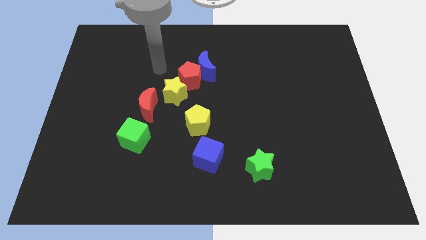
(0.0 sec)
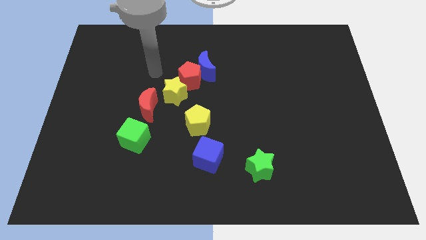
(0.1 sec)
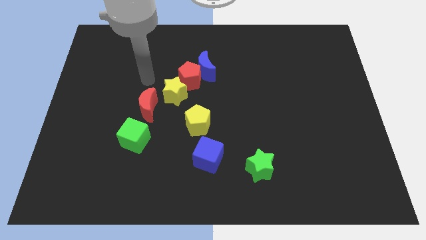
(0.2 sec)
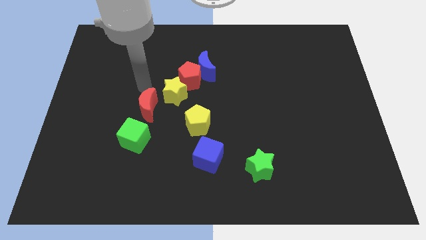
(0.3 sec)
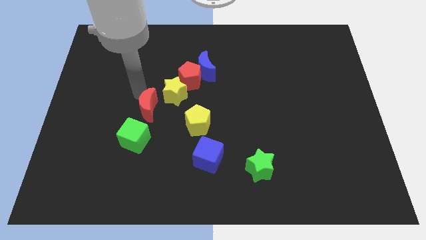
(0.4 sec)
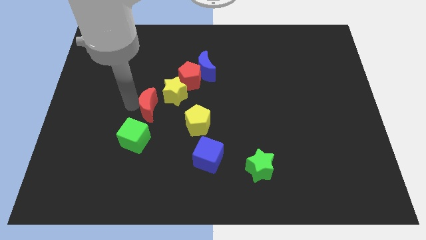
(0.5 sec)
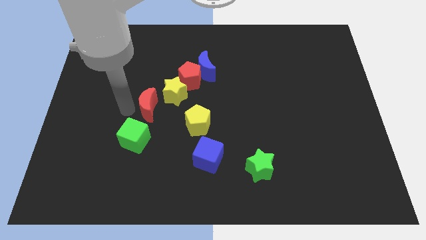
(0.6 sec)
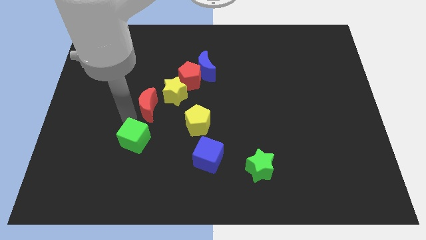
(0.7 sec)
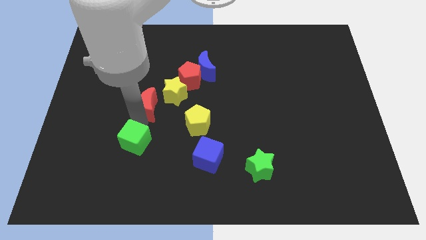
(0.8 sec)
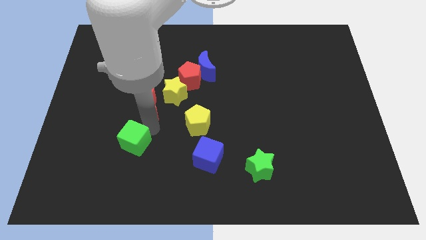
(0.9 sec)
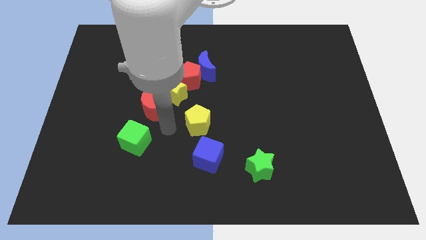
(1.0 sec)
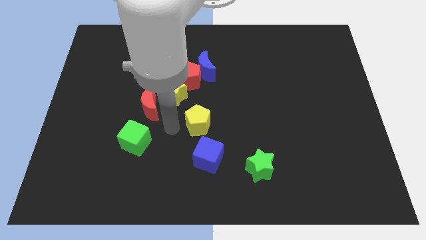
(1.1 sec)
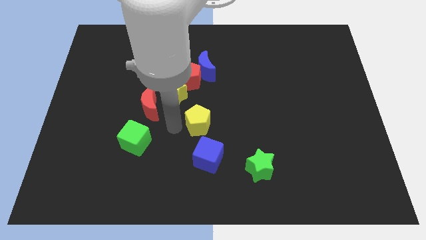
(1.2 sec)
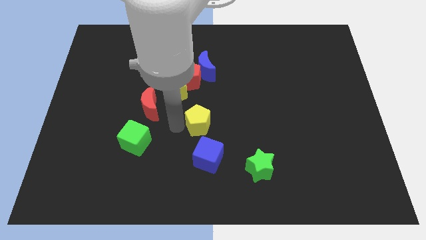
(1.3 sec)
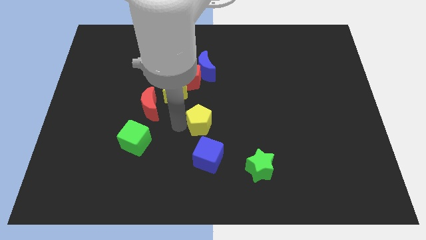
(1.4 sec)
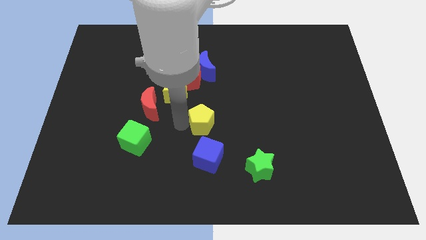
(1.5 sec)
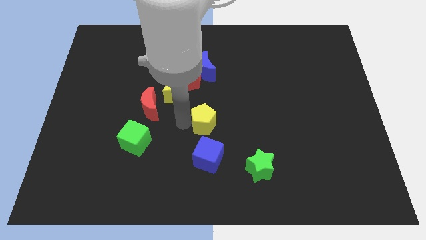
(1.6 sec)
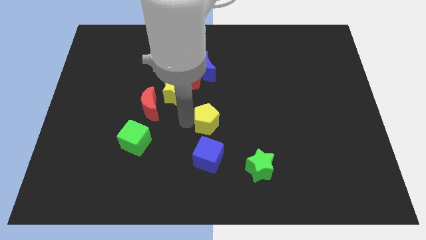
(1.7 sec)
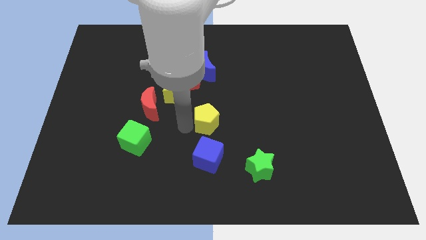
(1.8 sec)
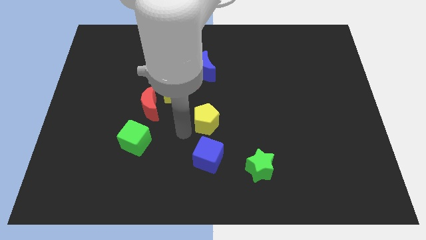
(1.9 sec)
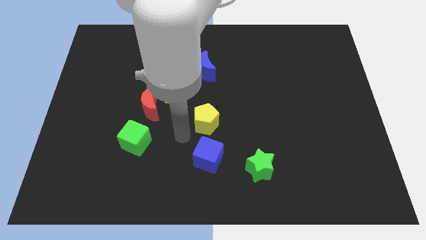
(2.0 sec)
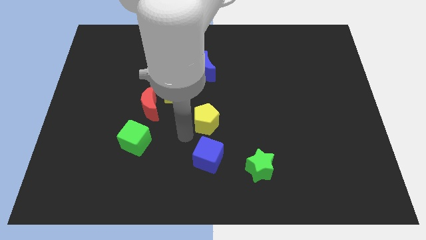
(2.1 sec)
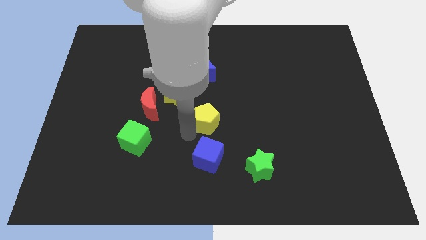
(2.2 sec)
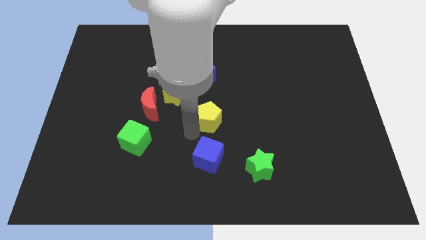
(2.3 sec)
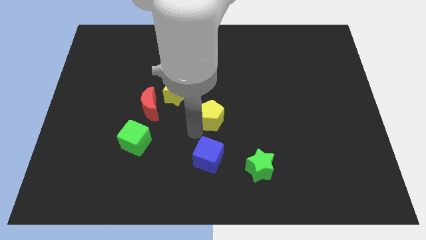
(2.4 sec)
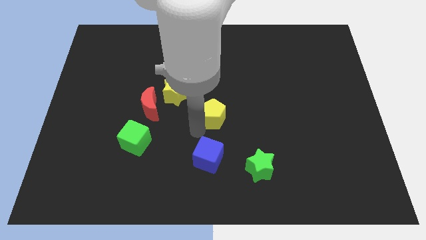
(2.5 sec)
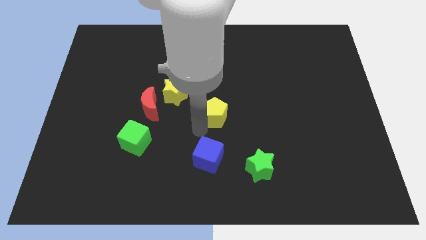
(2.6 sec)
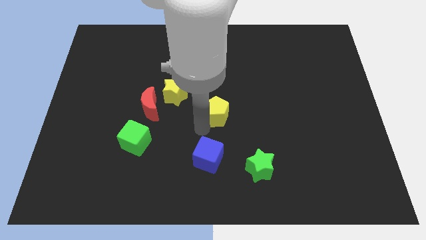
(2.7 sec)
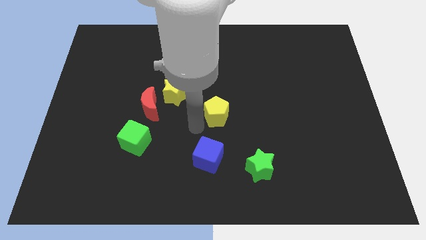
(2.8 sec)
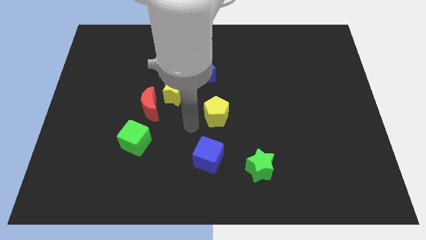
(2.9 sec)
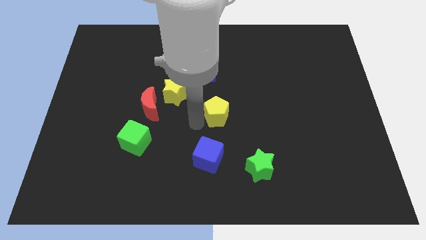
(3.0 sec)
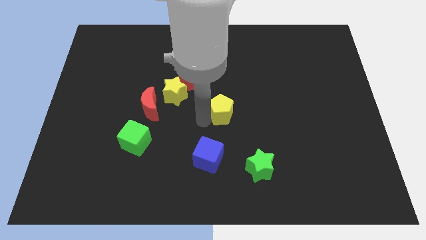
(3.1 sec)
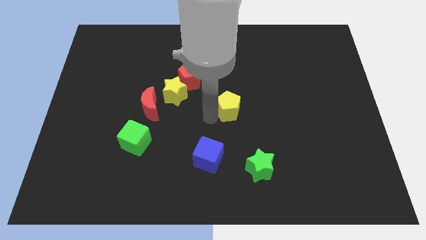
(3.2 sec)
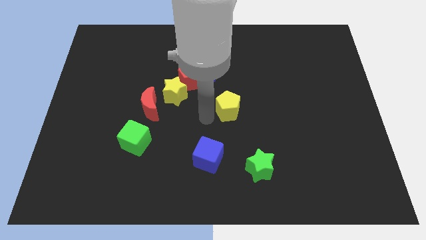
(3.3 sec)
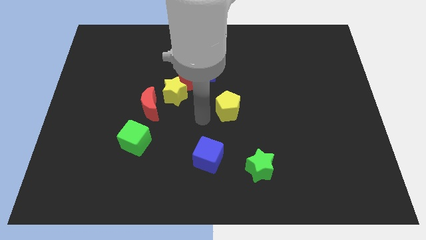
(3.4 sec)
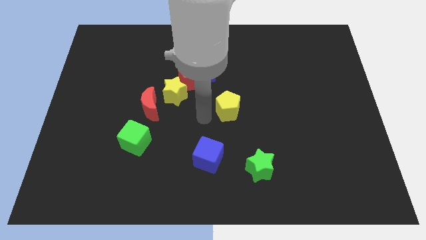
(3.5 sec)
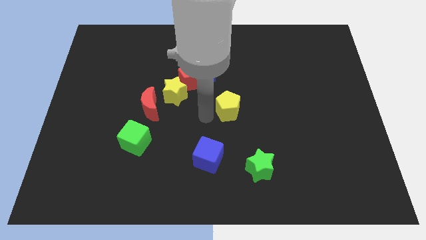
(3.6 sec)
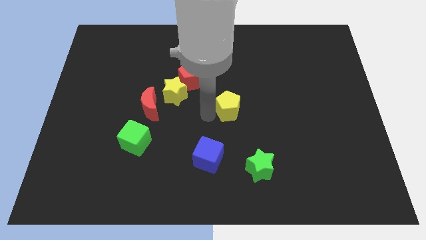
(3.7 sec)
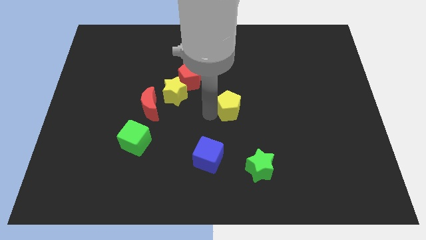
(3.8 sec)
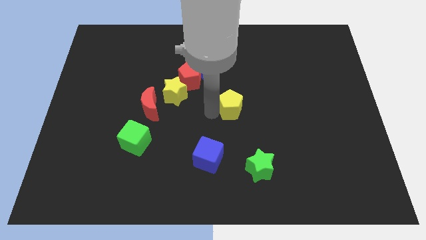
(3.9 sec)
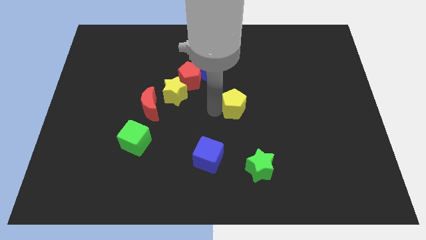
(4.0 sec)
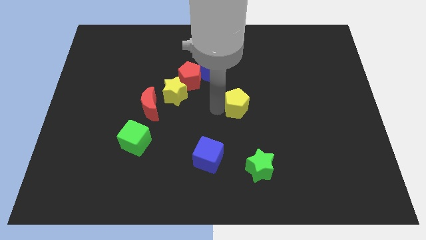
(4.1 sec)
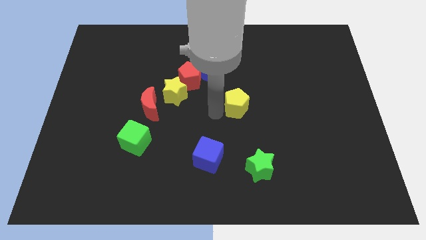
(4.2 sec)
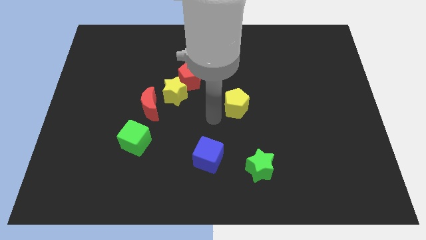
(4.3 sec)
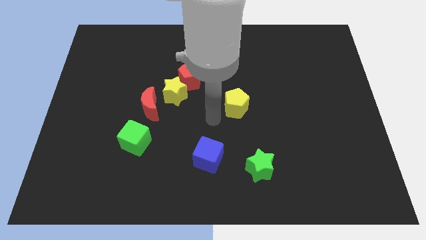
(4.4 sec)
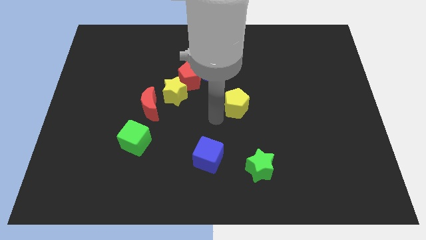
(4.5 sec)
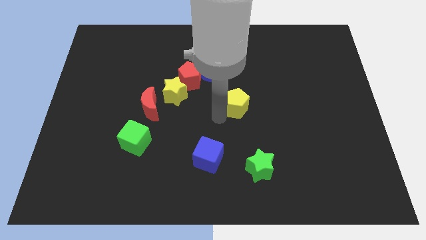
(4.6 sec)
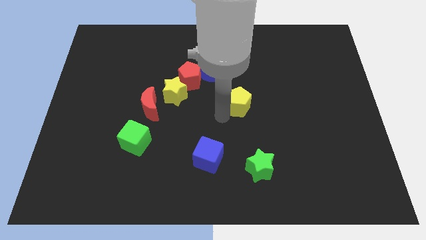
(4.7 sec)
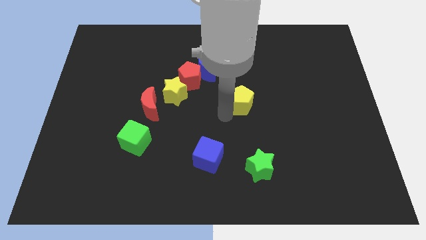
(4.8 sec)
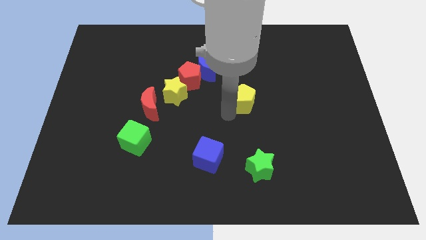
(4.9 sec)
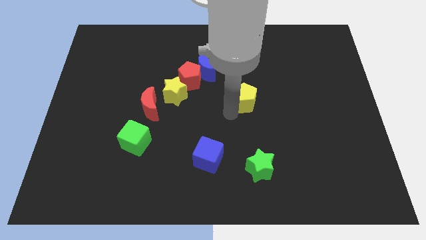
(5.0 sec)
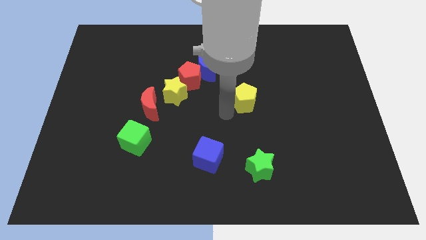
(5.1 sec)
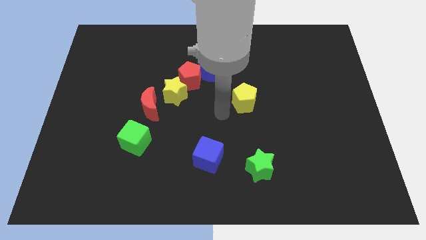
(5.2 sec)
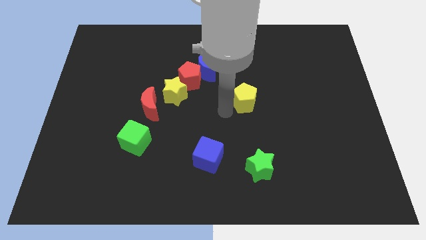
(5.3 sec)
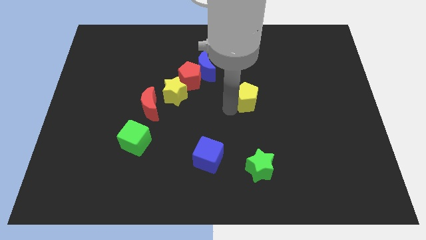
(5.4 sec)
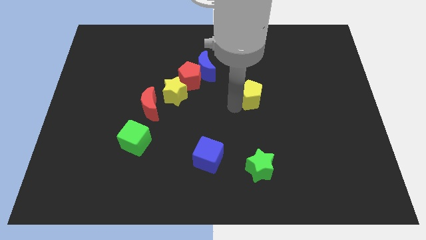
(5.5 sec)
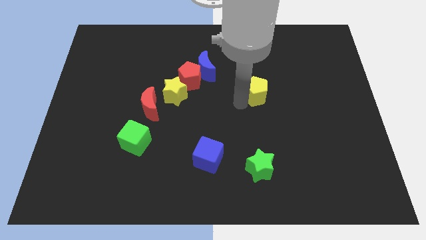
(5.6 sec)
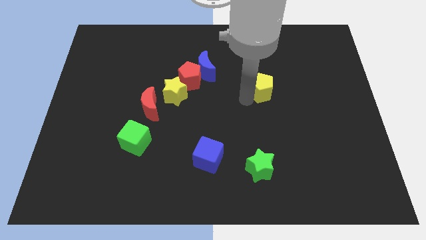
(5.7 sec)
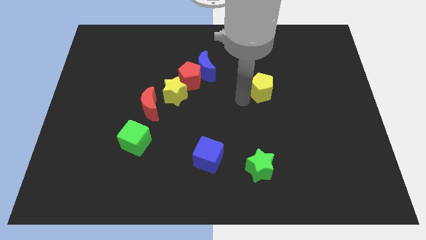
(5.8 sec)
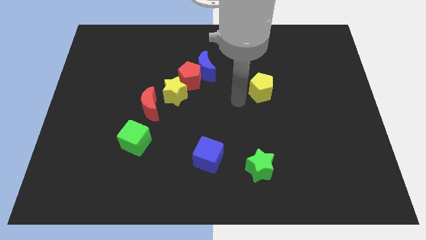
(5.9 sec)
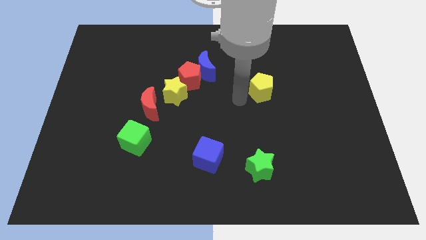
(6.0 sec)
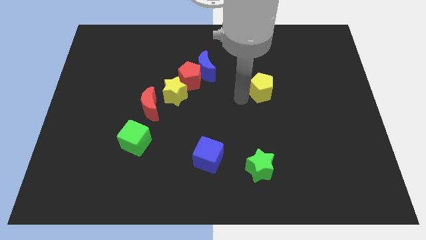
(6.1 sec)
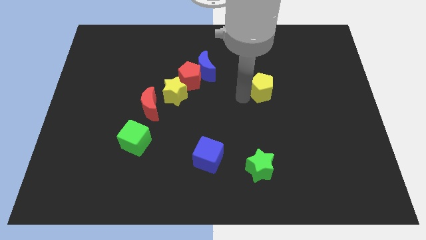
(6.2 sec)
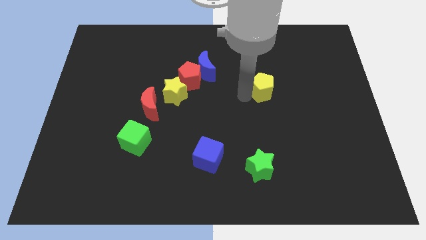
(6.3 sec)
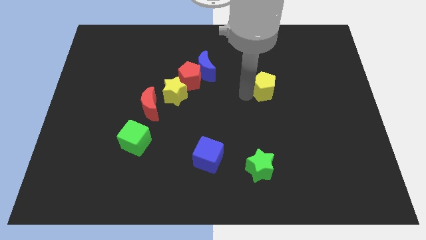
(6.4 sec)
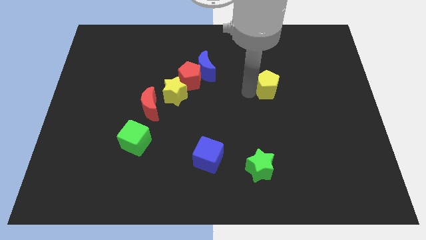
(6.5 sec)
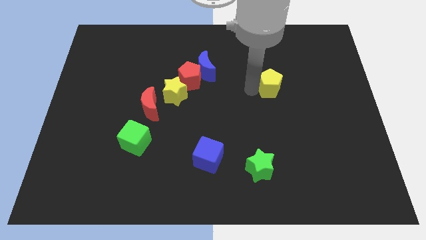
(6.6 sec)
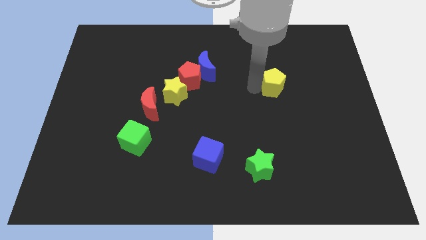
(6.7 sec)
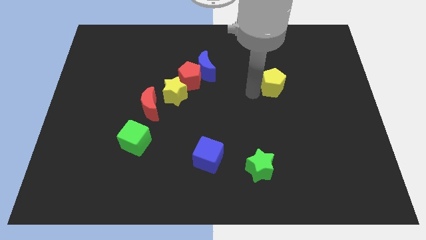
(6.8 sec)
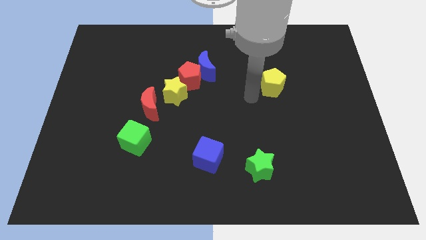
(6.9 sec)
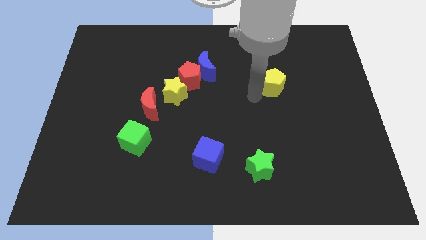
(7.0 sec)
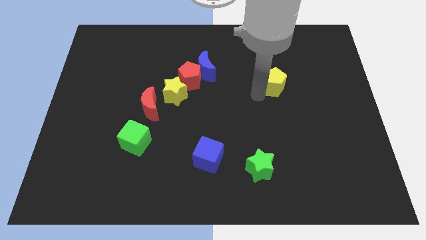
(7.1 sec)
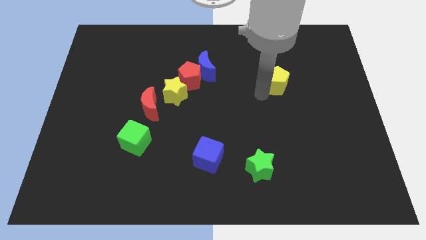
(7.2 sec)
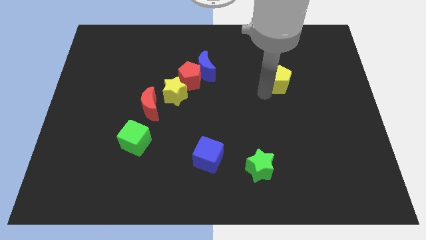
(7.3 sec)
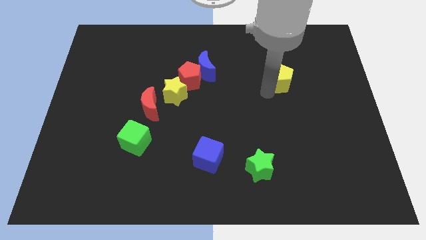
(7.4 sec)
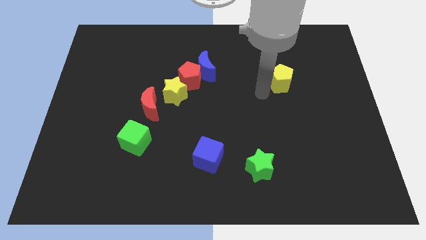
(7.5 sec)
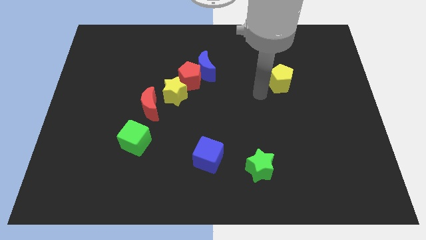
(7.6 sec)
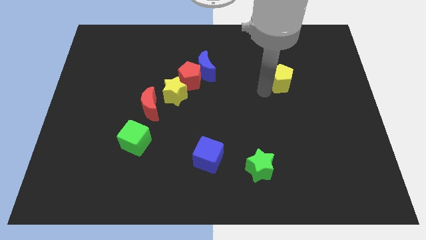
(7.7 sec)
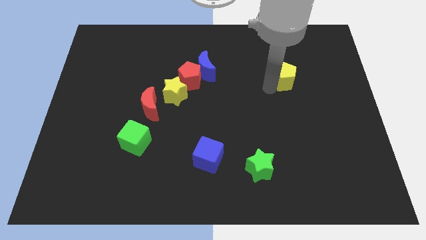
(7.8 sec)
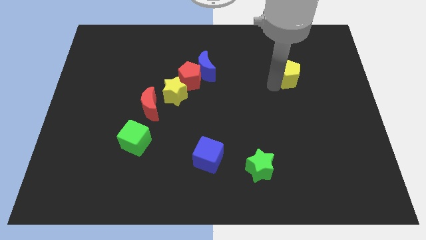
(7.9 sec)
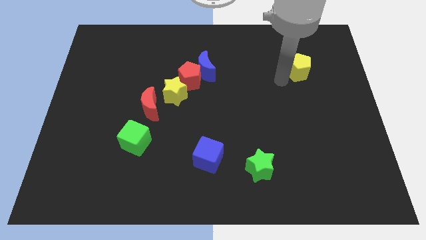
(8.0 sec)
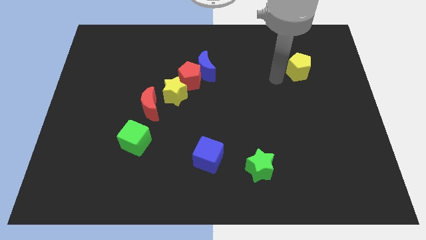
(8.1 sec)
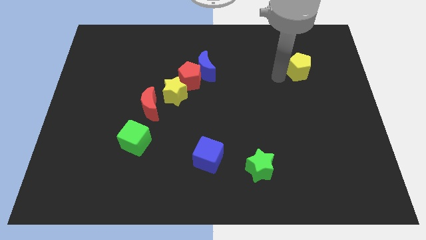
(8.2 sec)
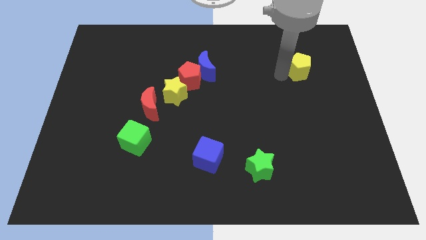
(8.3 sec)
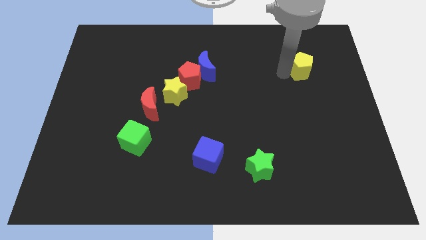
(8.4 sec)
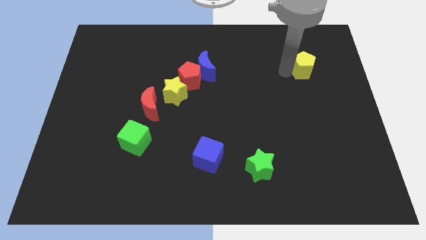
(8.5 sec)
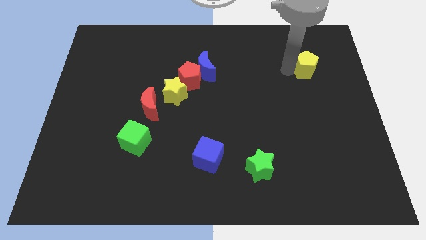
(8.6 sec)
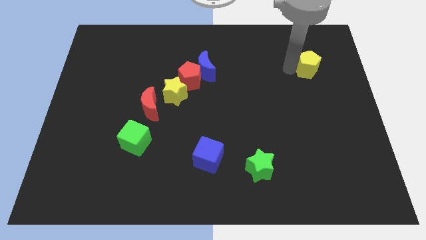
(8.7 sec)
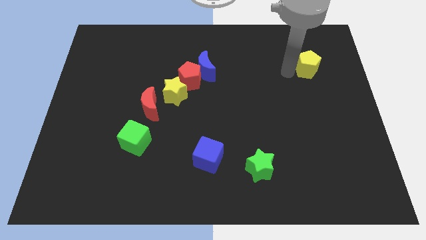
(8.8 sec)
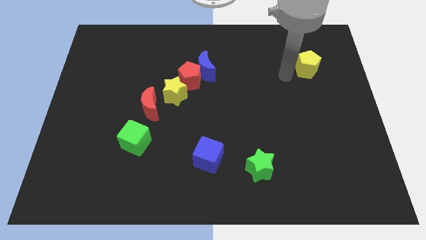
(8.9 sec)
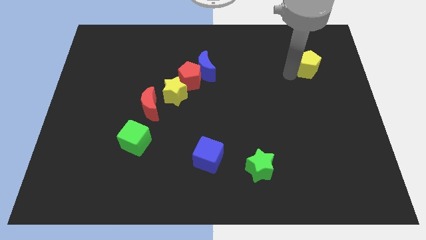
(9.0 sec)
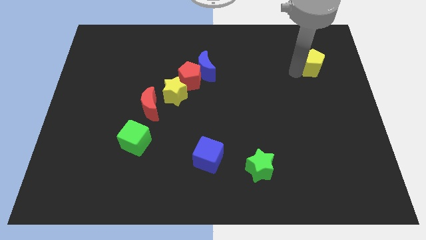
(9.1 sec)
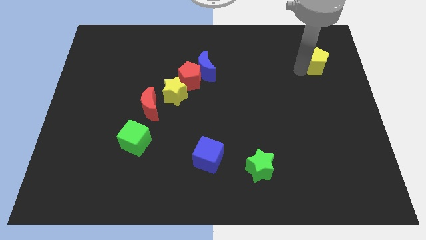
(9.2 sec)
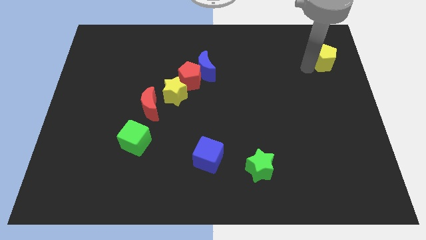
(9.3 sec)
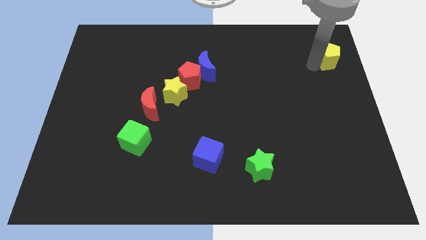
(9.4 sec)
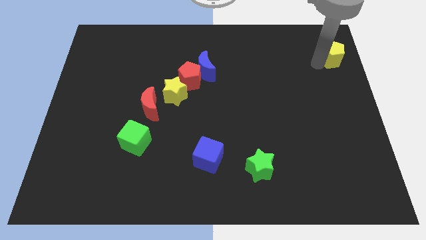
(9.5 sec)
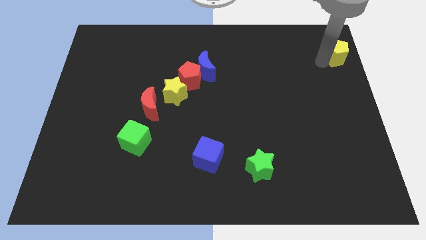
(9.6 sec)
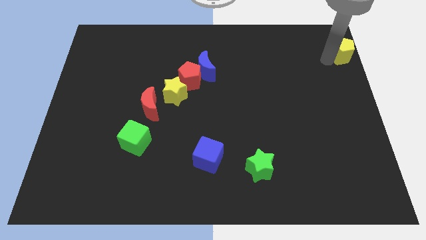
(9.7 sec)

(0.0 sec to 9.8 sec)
push the yellow pentagon to the top right corner
